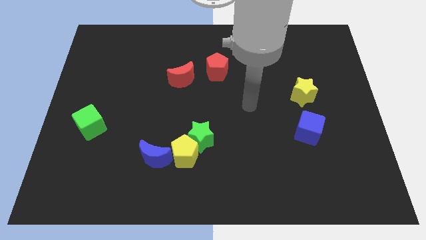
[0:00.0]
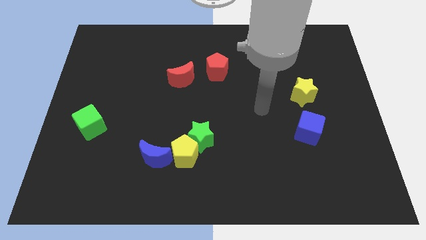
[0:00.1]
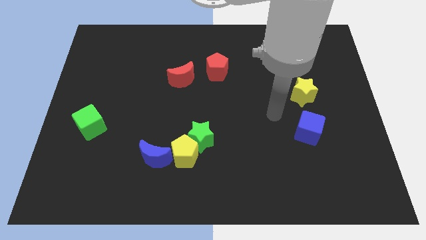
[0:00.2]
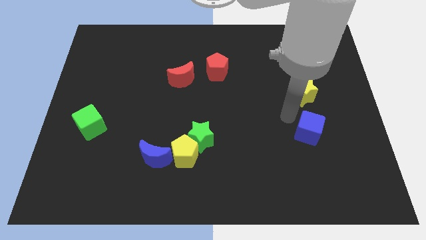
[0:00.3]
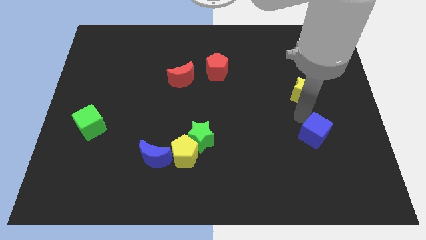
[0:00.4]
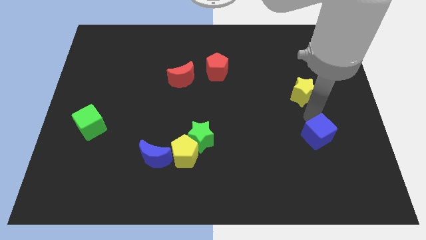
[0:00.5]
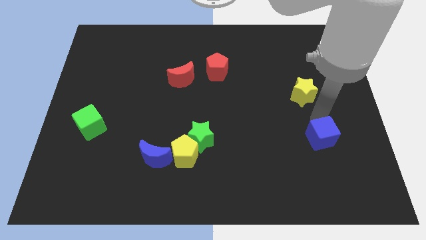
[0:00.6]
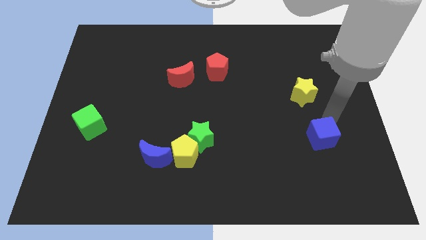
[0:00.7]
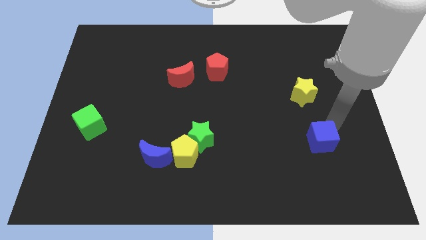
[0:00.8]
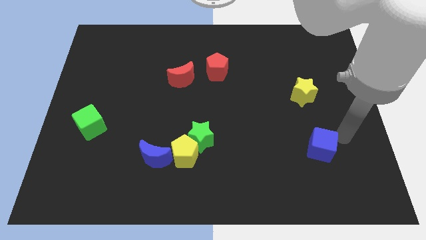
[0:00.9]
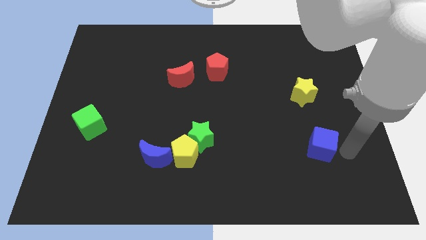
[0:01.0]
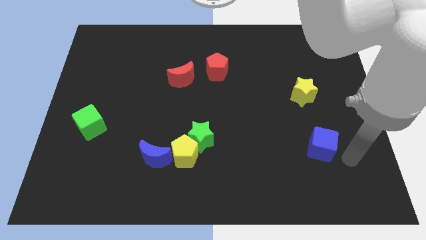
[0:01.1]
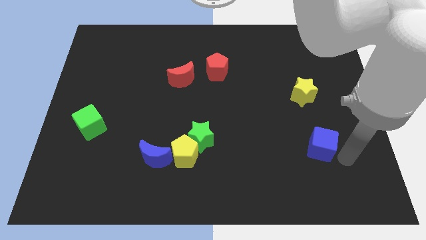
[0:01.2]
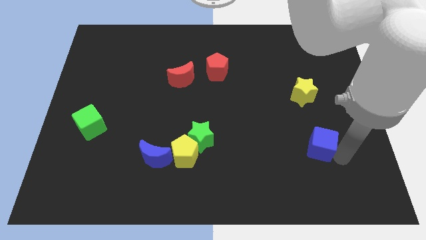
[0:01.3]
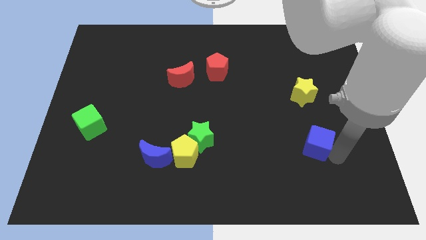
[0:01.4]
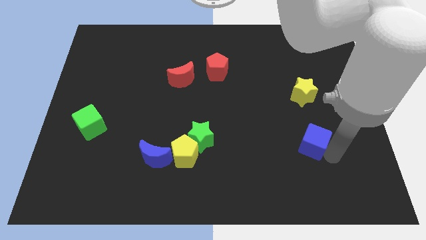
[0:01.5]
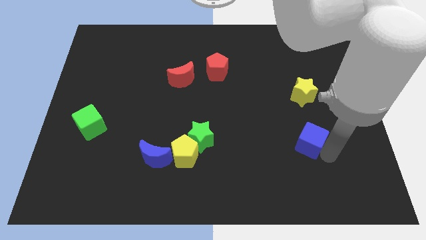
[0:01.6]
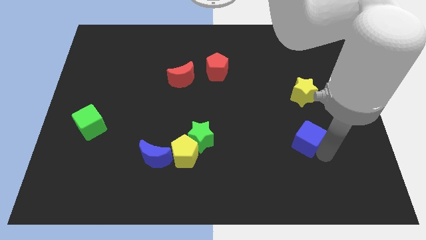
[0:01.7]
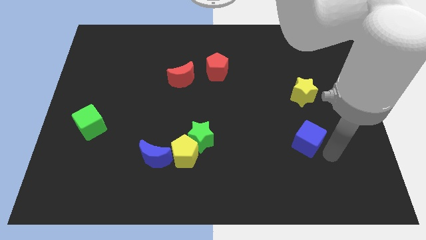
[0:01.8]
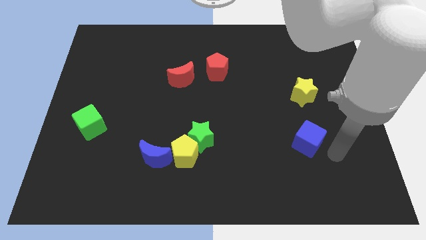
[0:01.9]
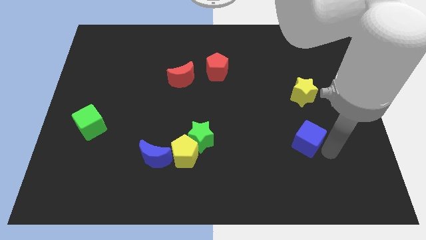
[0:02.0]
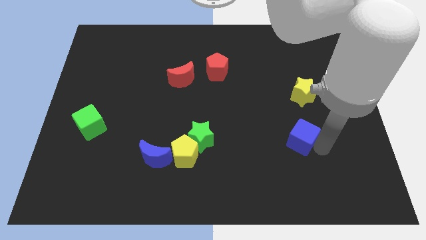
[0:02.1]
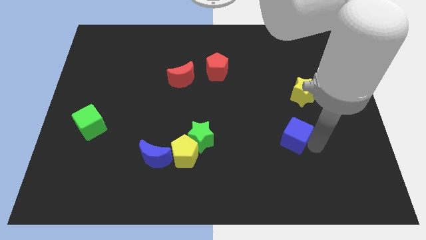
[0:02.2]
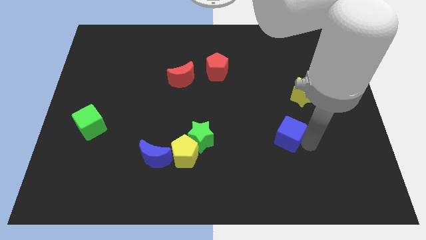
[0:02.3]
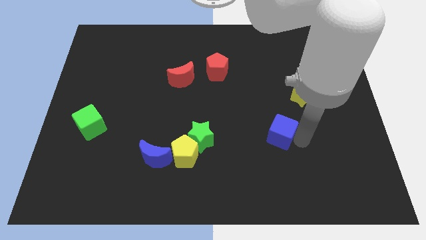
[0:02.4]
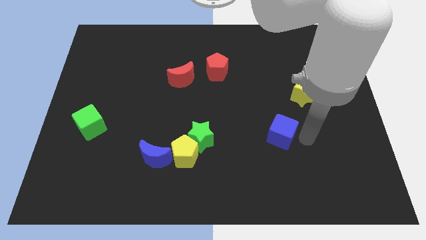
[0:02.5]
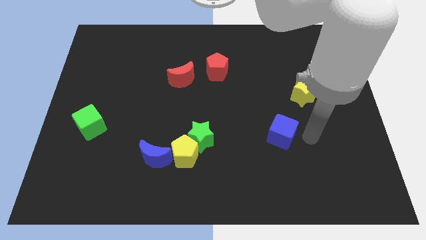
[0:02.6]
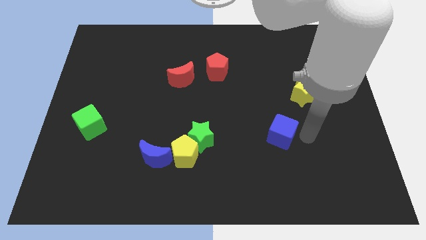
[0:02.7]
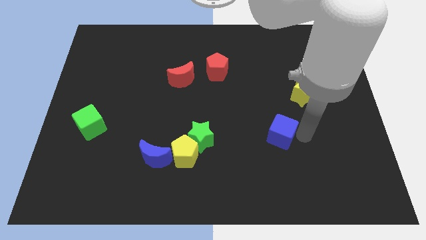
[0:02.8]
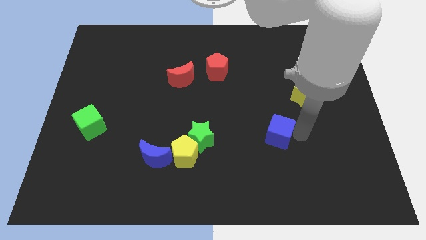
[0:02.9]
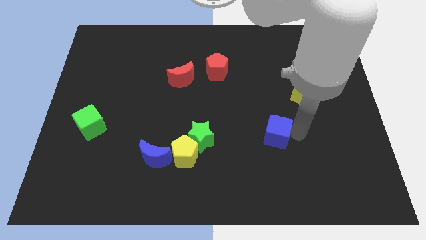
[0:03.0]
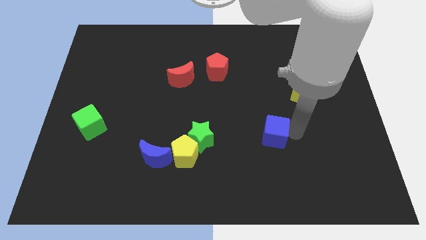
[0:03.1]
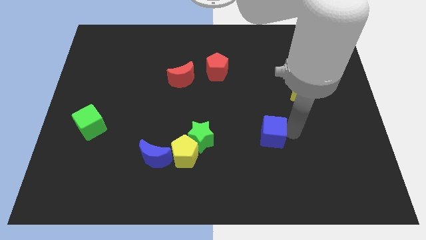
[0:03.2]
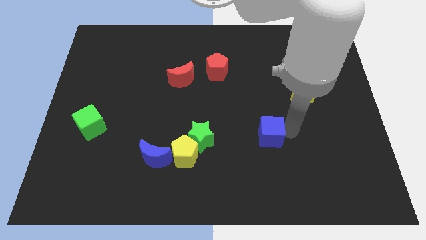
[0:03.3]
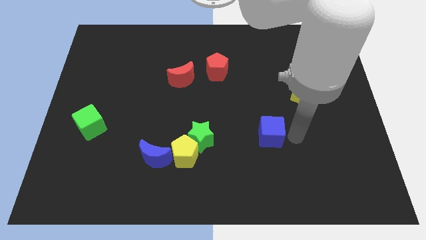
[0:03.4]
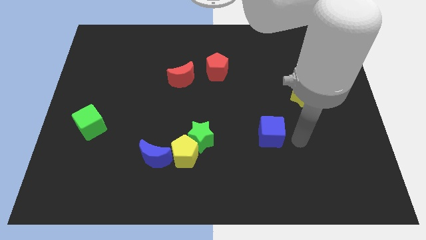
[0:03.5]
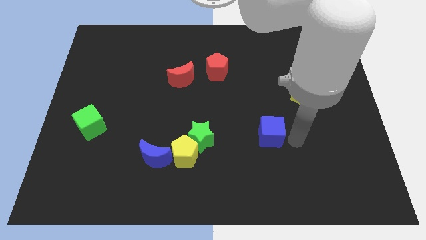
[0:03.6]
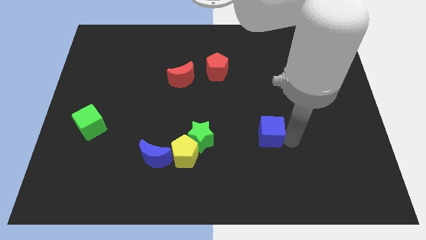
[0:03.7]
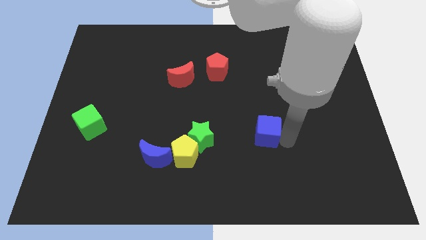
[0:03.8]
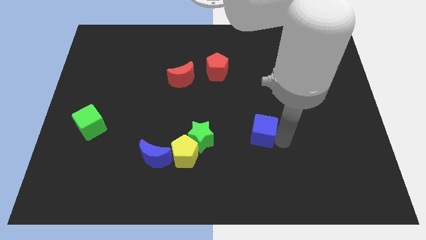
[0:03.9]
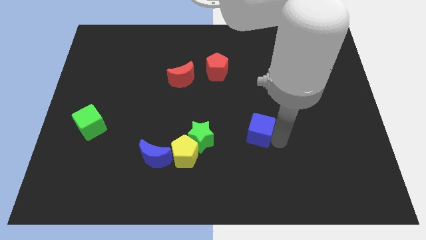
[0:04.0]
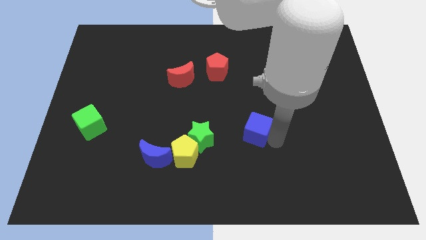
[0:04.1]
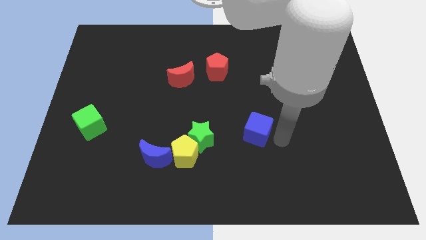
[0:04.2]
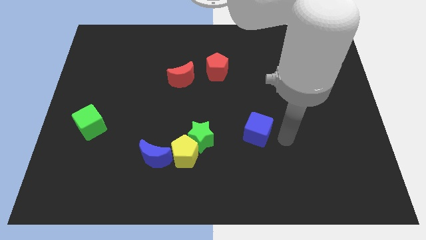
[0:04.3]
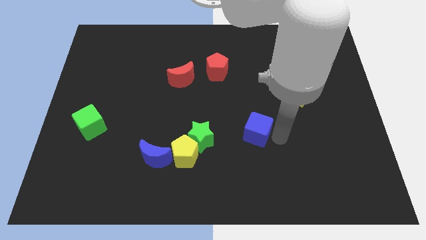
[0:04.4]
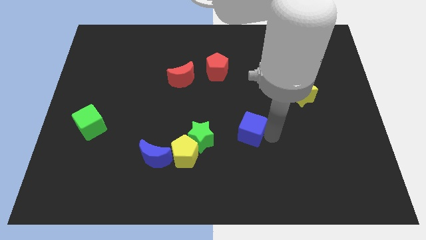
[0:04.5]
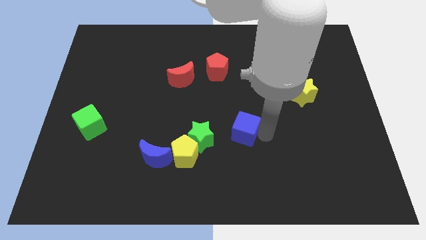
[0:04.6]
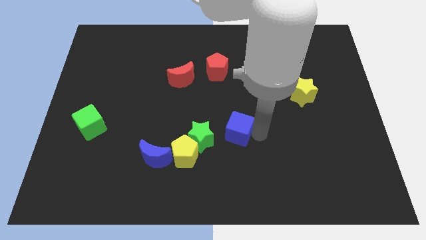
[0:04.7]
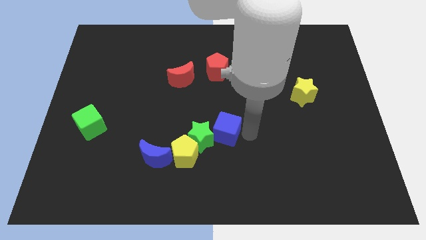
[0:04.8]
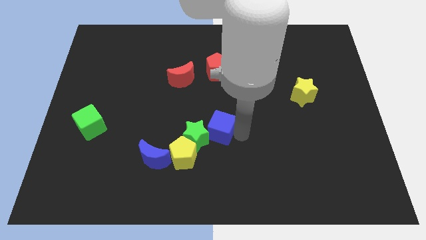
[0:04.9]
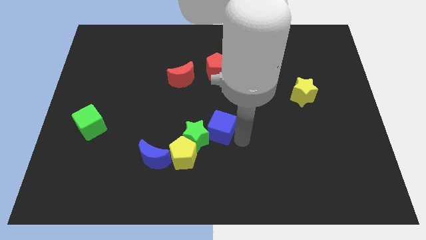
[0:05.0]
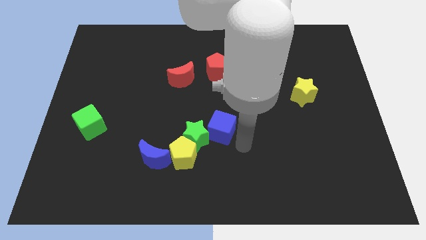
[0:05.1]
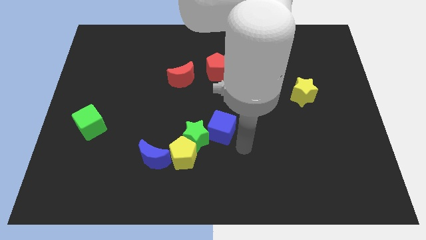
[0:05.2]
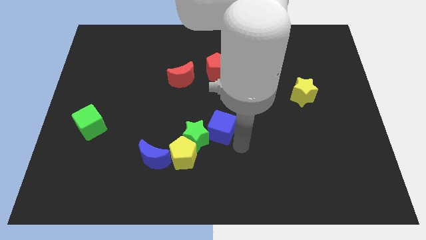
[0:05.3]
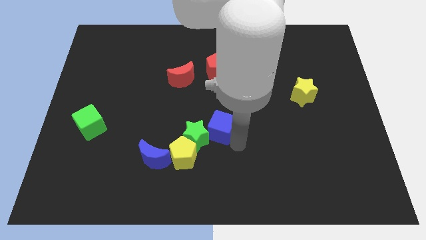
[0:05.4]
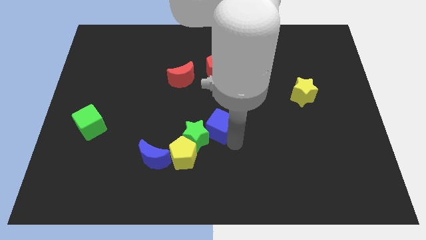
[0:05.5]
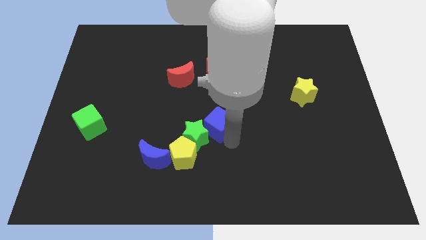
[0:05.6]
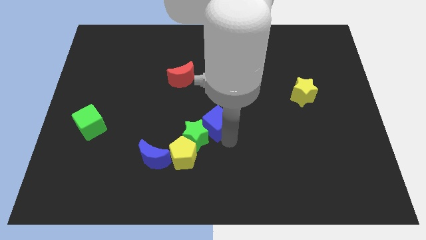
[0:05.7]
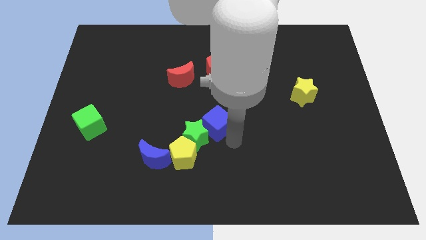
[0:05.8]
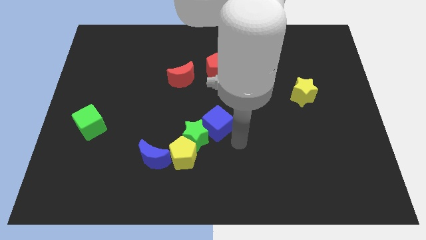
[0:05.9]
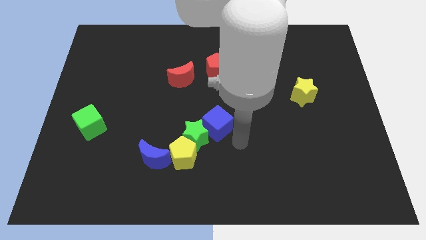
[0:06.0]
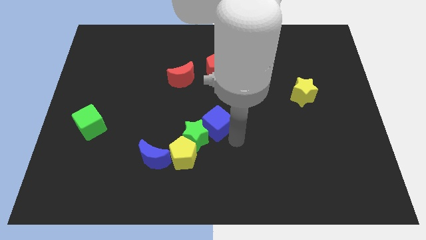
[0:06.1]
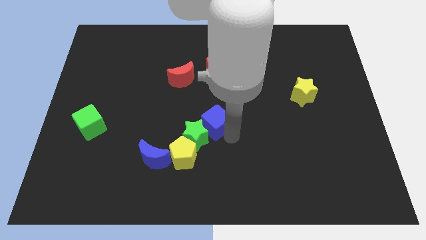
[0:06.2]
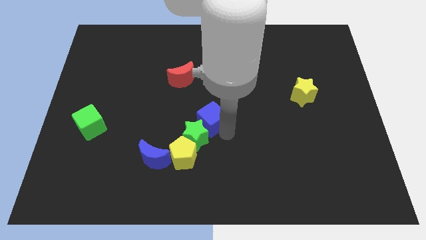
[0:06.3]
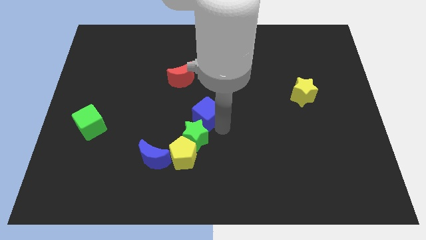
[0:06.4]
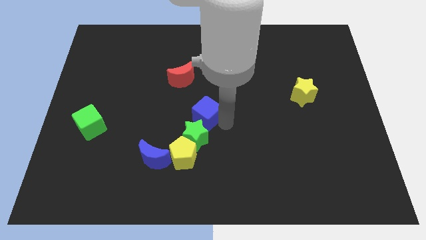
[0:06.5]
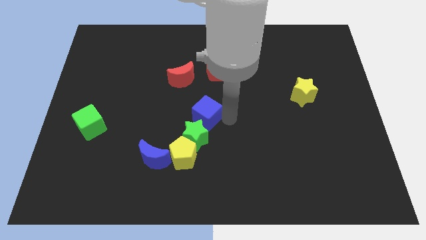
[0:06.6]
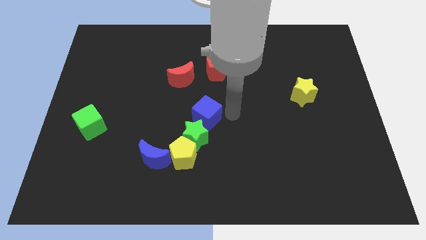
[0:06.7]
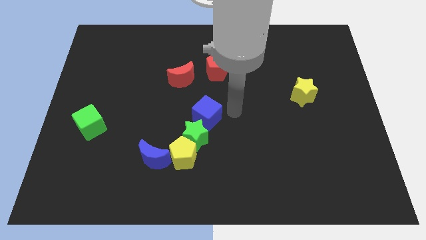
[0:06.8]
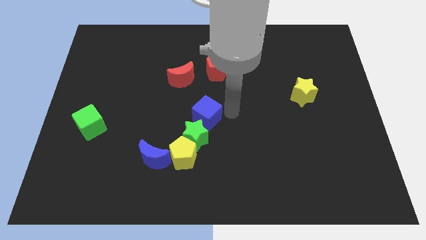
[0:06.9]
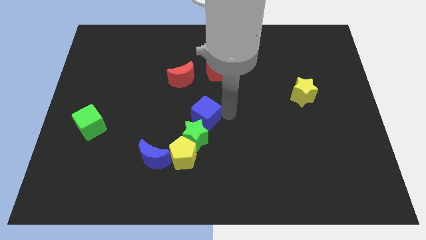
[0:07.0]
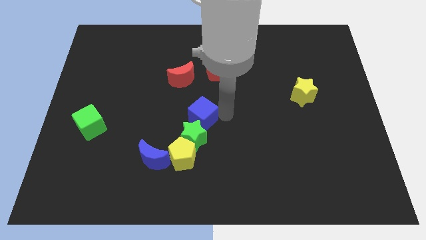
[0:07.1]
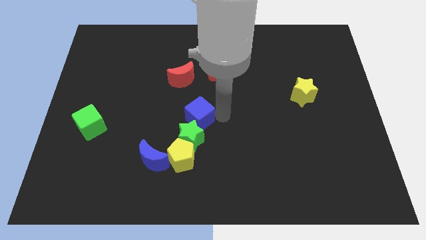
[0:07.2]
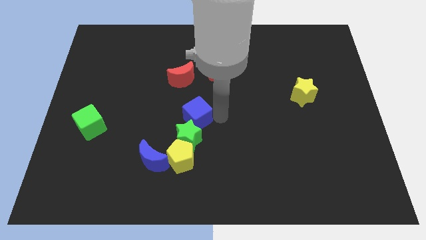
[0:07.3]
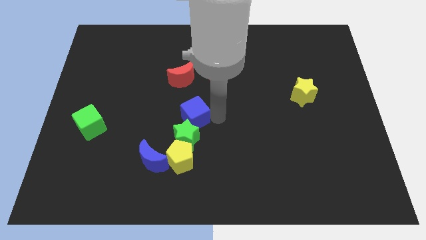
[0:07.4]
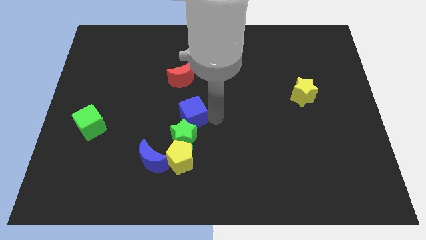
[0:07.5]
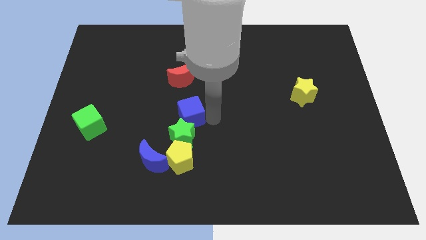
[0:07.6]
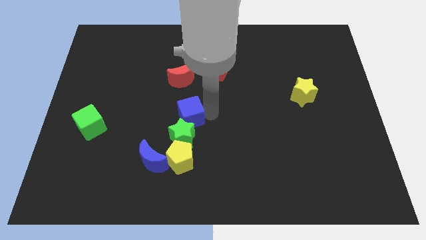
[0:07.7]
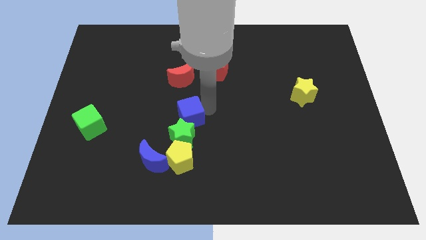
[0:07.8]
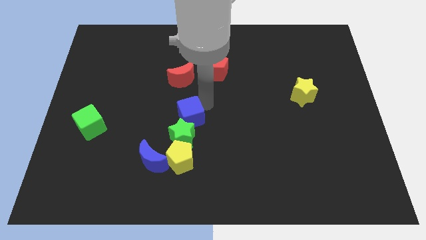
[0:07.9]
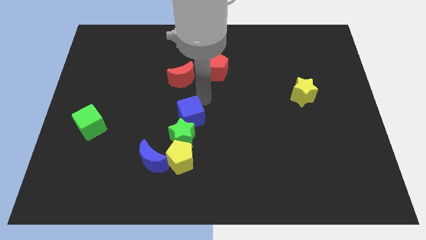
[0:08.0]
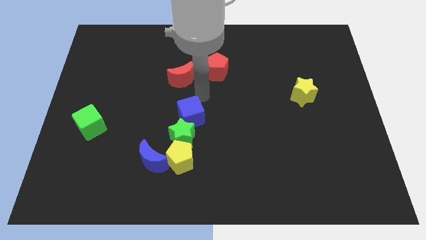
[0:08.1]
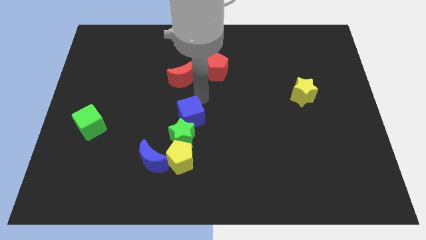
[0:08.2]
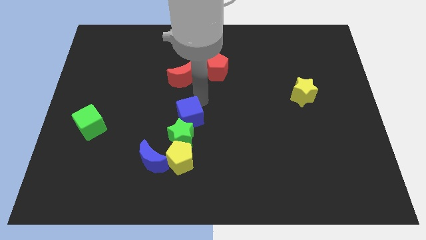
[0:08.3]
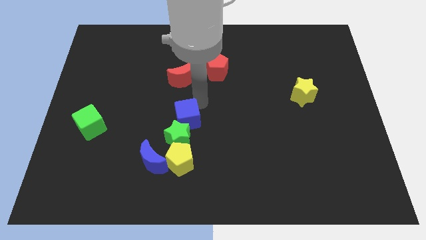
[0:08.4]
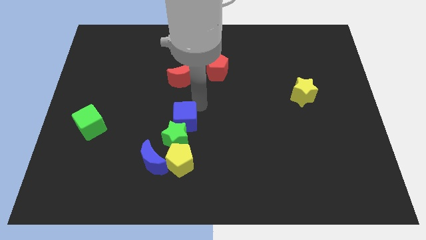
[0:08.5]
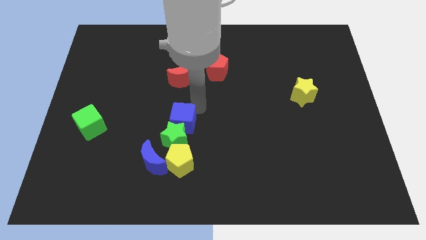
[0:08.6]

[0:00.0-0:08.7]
move the blue cube to the top right side of the blue moon
